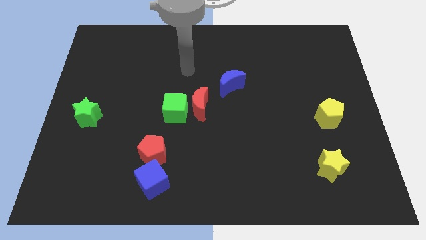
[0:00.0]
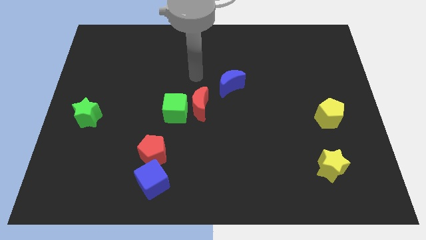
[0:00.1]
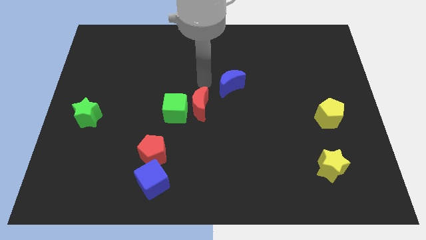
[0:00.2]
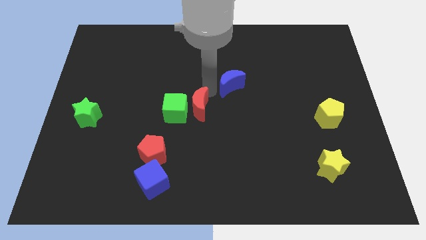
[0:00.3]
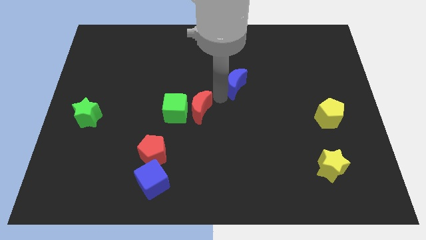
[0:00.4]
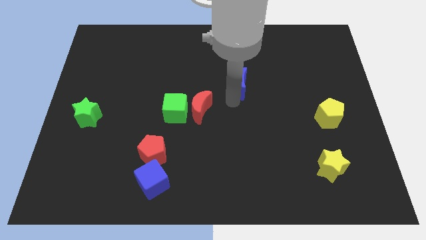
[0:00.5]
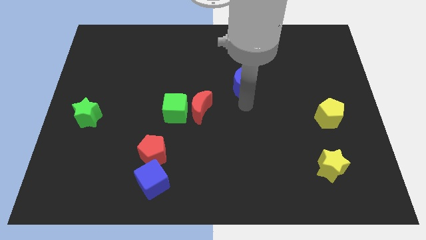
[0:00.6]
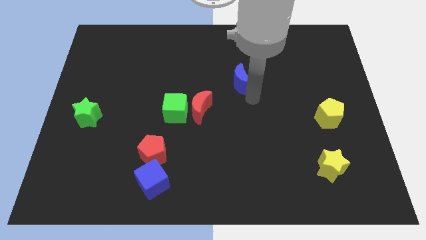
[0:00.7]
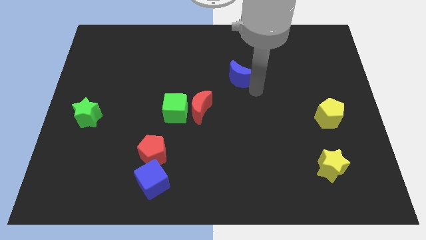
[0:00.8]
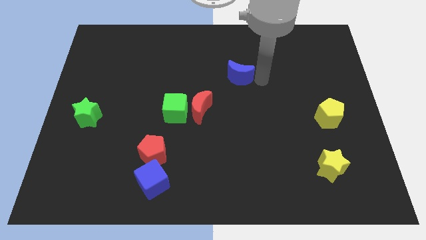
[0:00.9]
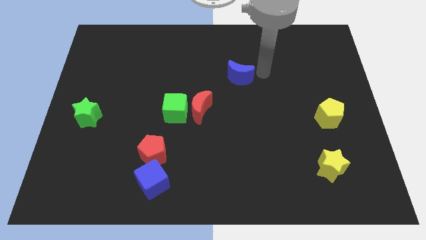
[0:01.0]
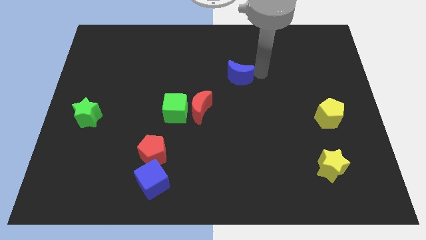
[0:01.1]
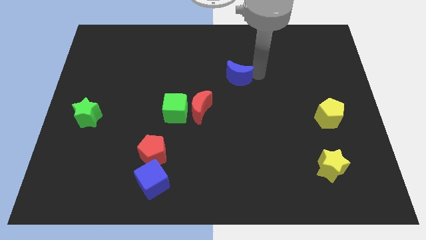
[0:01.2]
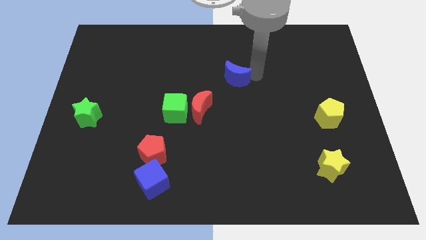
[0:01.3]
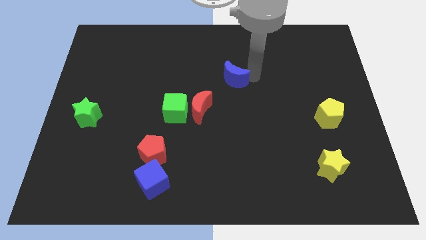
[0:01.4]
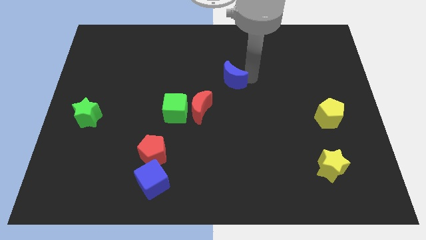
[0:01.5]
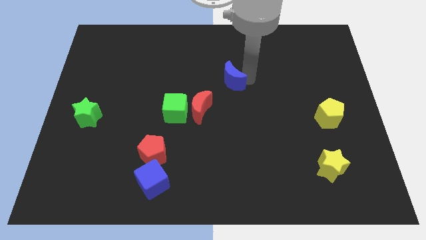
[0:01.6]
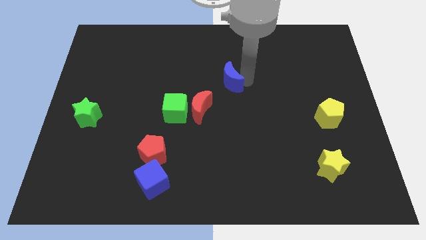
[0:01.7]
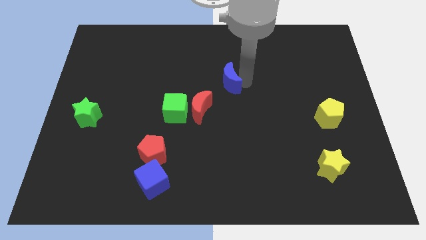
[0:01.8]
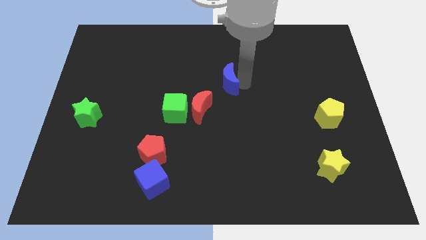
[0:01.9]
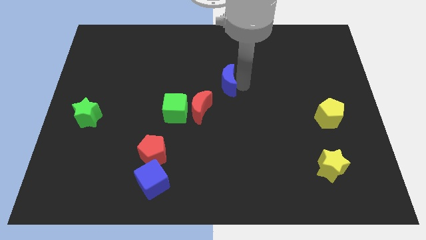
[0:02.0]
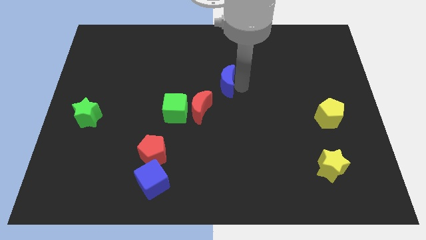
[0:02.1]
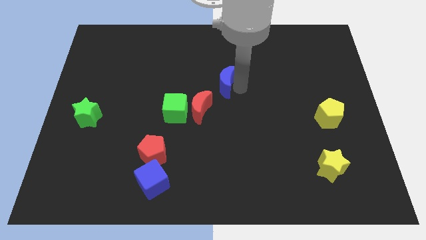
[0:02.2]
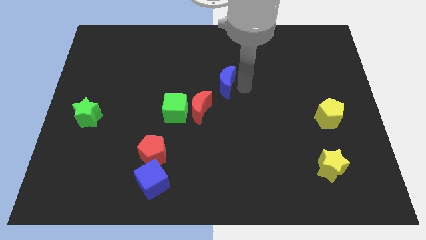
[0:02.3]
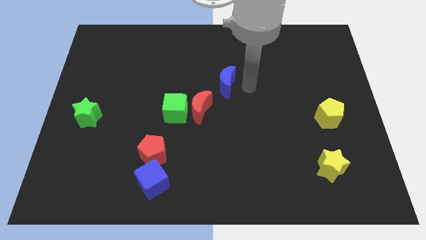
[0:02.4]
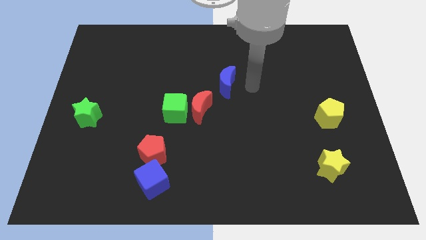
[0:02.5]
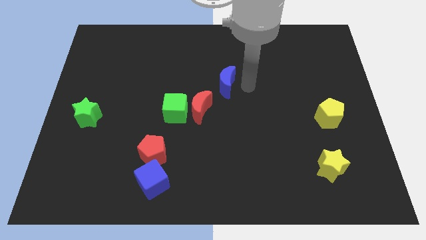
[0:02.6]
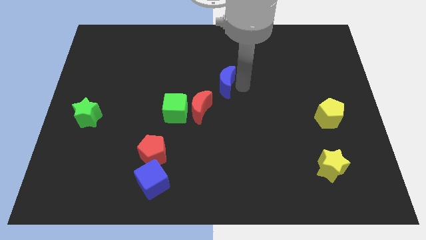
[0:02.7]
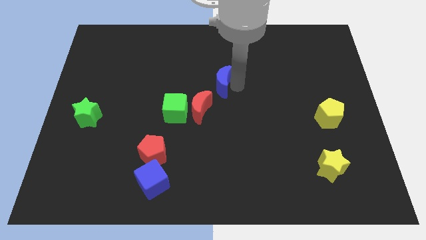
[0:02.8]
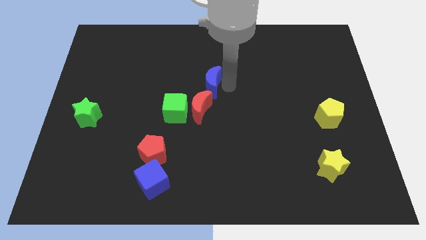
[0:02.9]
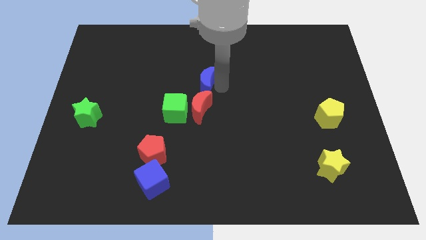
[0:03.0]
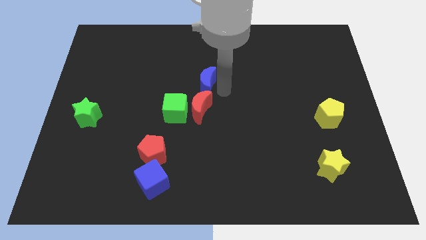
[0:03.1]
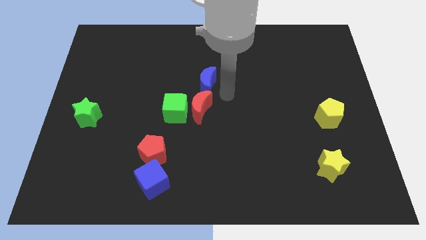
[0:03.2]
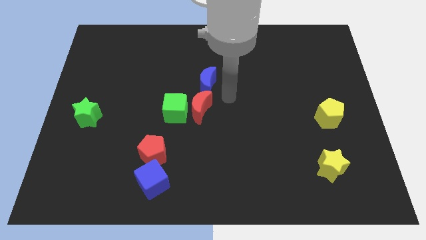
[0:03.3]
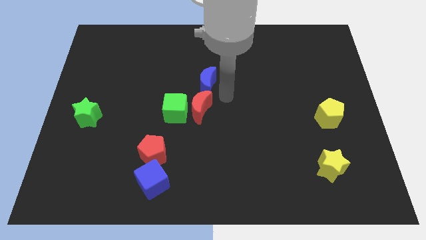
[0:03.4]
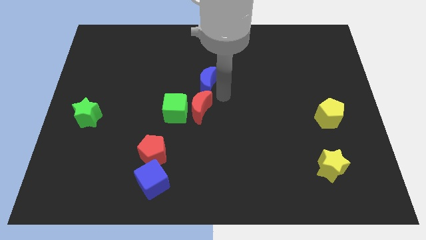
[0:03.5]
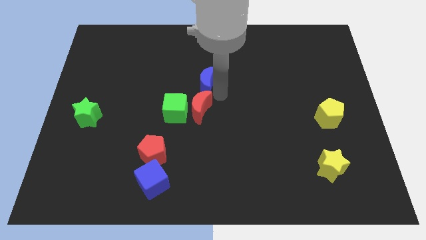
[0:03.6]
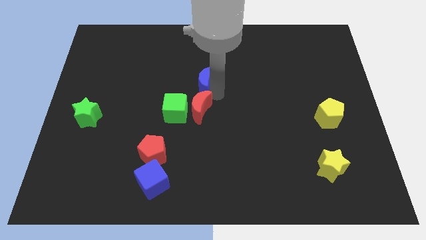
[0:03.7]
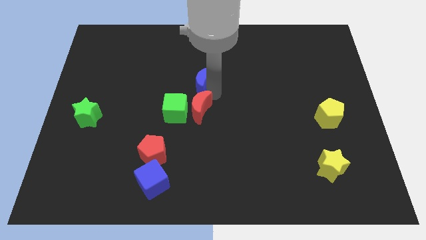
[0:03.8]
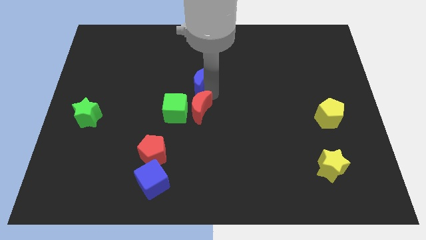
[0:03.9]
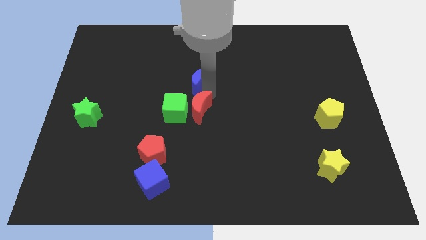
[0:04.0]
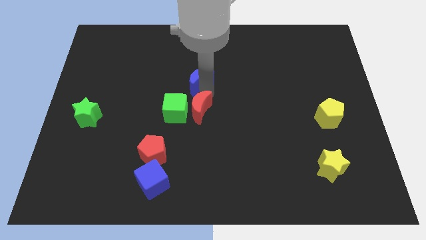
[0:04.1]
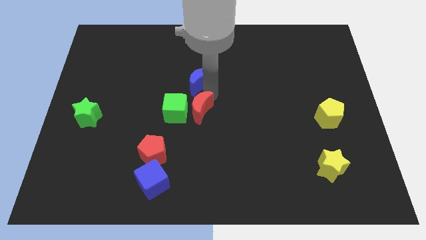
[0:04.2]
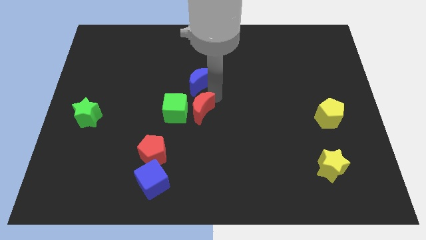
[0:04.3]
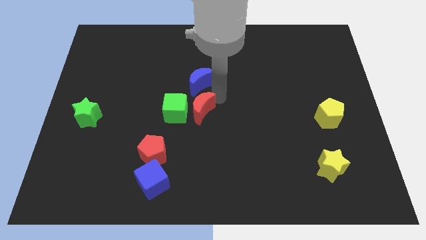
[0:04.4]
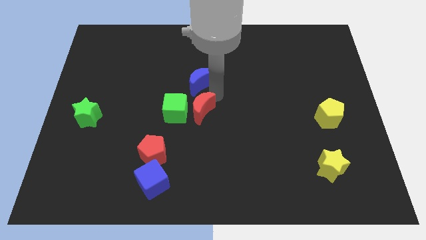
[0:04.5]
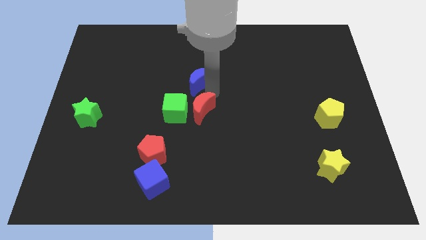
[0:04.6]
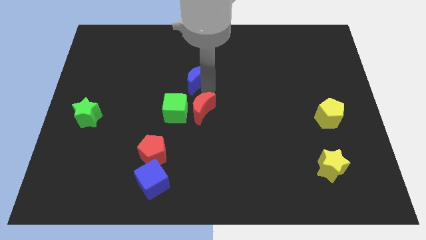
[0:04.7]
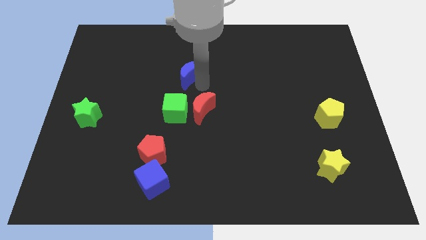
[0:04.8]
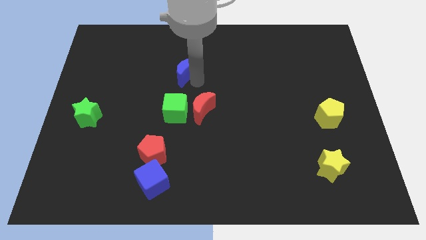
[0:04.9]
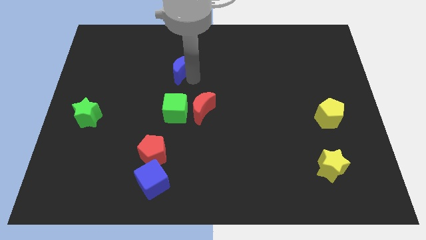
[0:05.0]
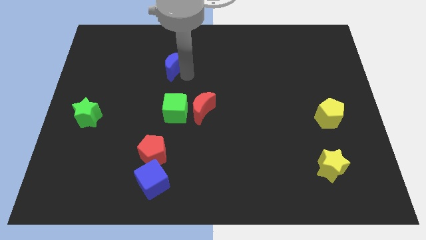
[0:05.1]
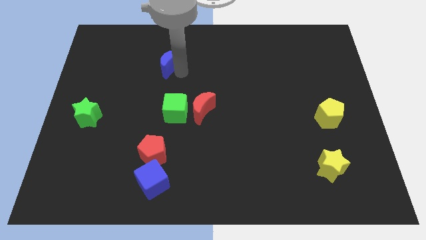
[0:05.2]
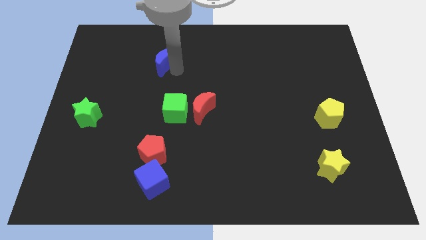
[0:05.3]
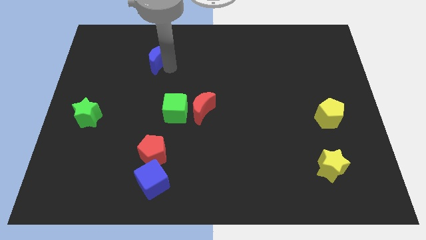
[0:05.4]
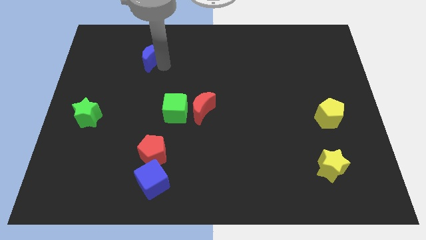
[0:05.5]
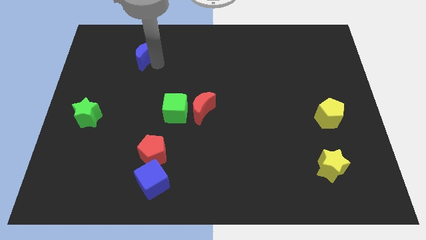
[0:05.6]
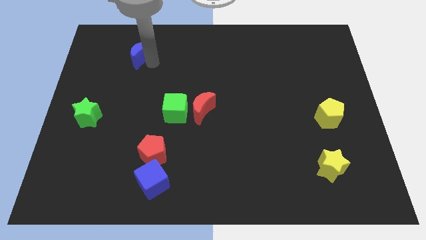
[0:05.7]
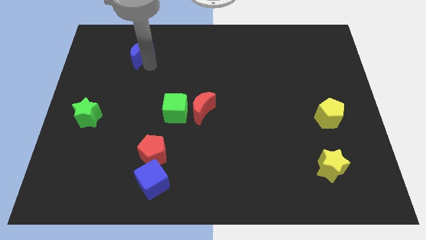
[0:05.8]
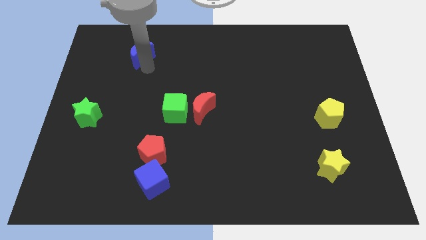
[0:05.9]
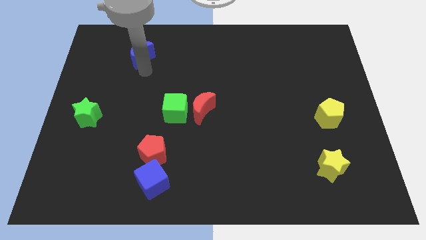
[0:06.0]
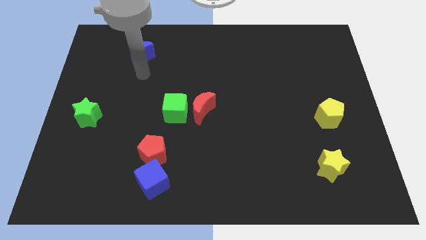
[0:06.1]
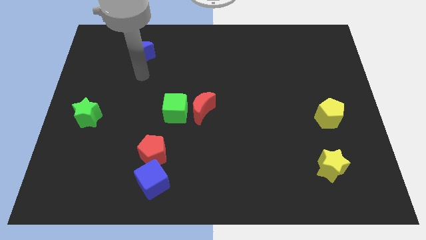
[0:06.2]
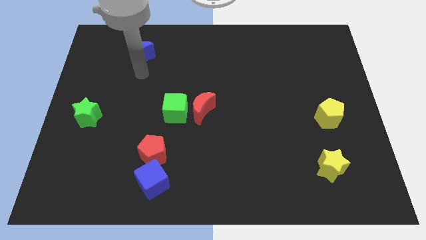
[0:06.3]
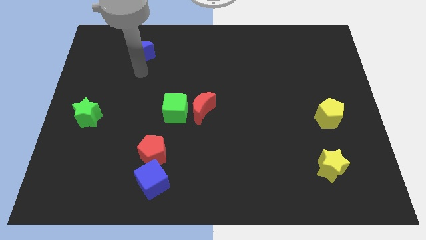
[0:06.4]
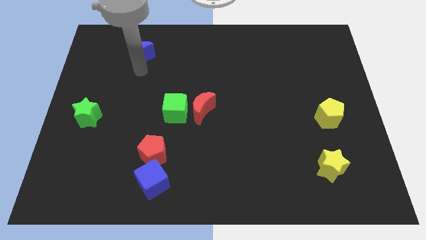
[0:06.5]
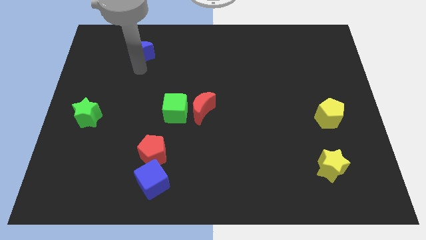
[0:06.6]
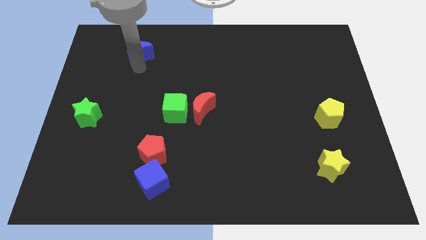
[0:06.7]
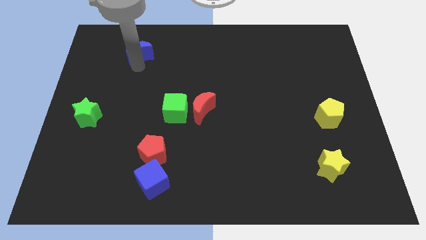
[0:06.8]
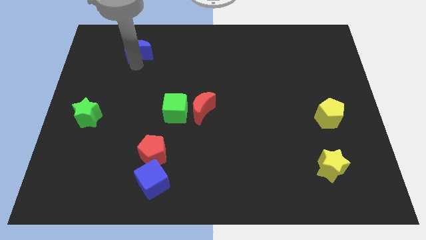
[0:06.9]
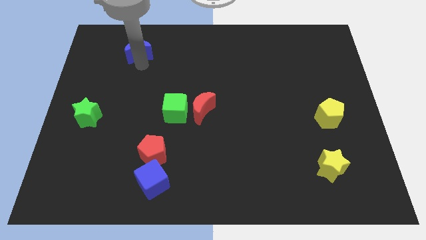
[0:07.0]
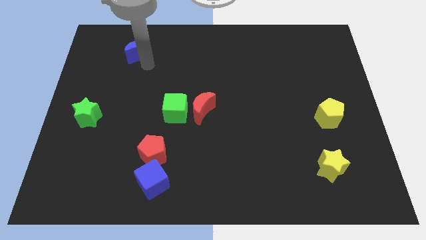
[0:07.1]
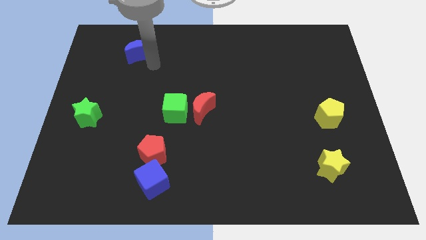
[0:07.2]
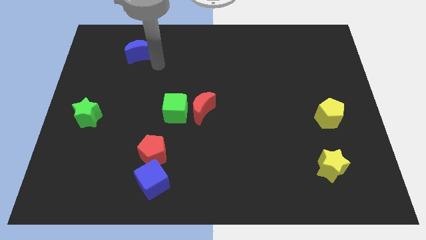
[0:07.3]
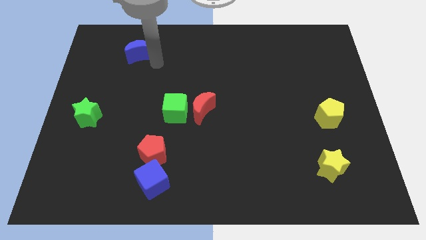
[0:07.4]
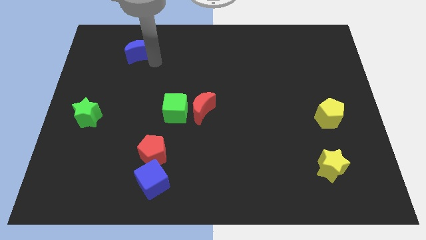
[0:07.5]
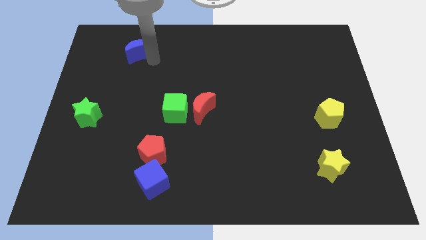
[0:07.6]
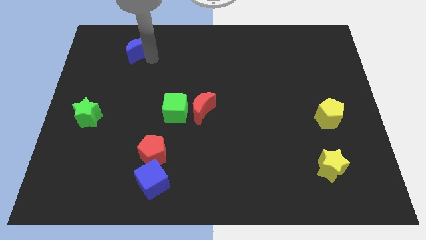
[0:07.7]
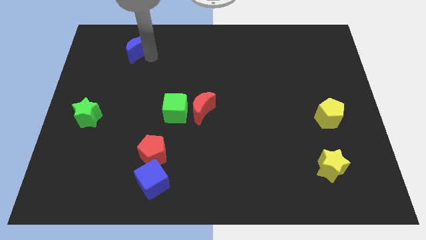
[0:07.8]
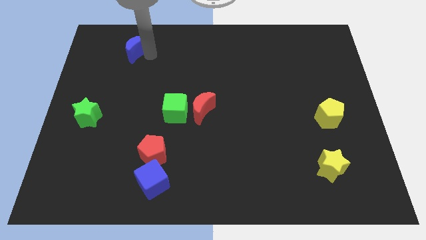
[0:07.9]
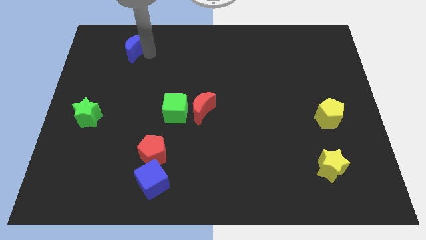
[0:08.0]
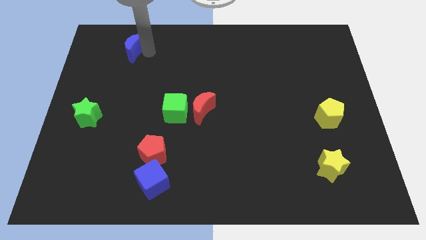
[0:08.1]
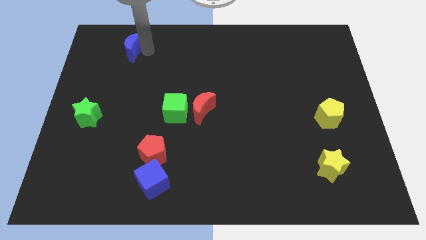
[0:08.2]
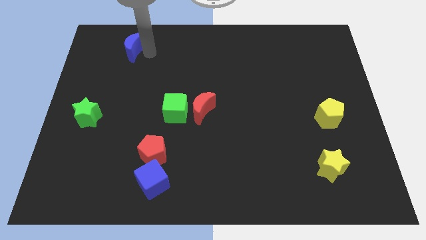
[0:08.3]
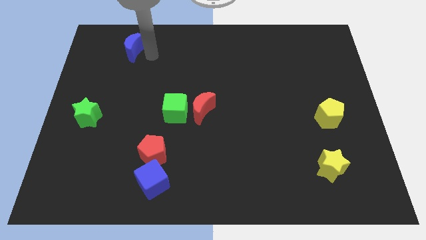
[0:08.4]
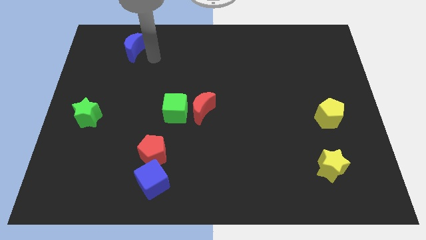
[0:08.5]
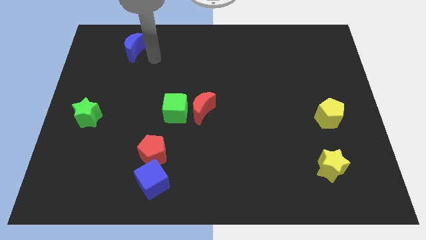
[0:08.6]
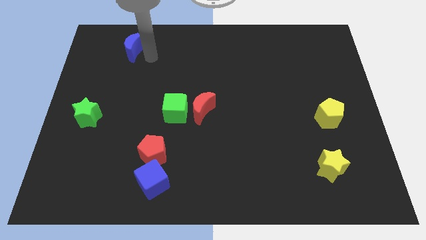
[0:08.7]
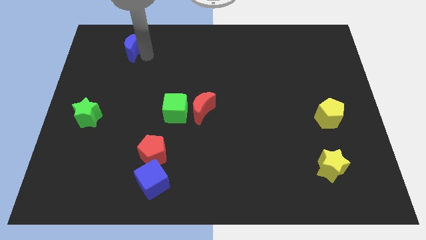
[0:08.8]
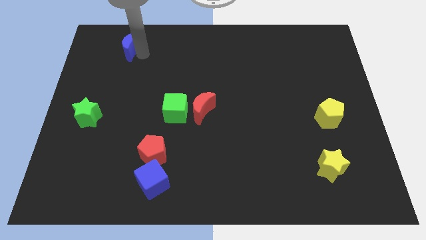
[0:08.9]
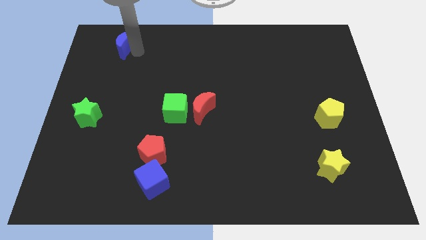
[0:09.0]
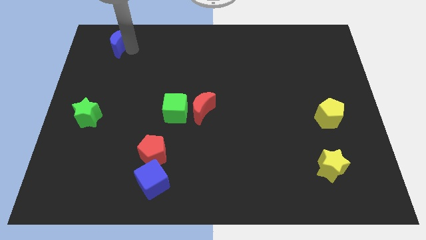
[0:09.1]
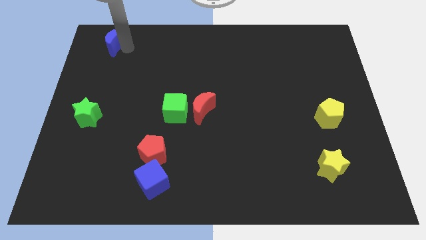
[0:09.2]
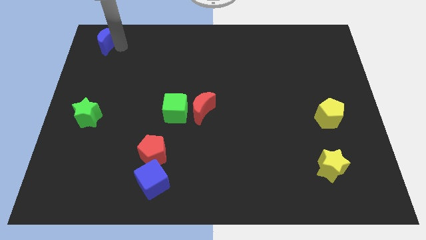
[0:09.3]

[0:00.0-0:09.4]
move the blue moon to the top left of the board
